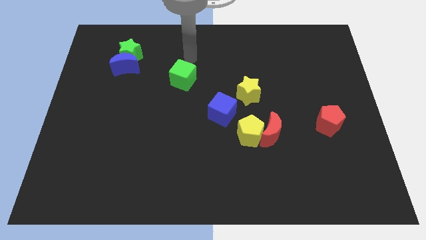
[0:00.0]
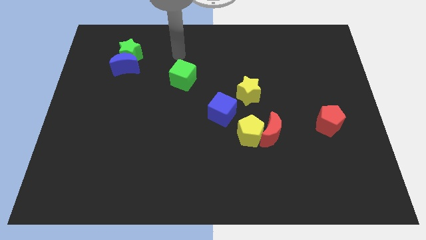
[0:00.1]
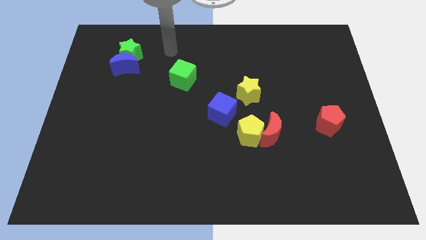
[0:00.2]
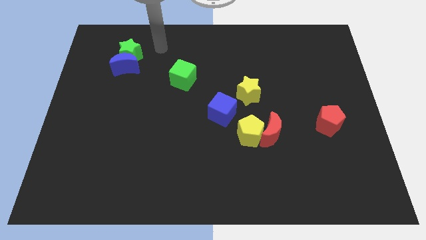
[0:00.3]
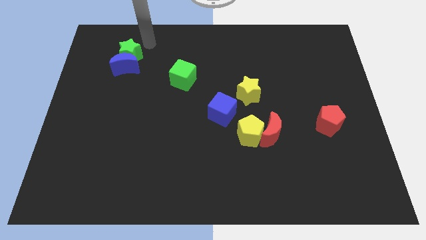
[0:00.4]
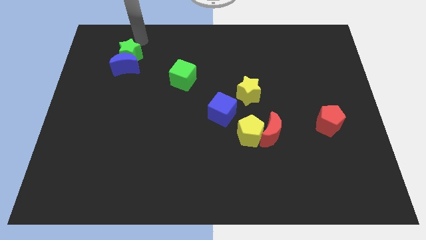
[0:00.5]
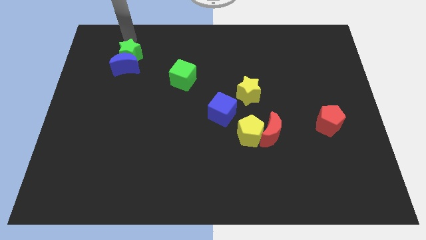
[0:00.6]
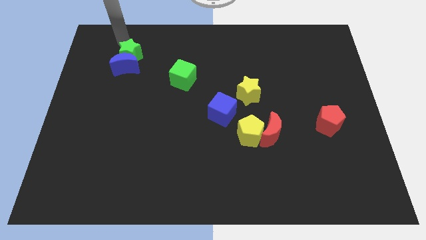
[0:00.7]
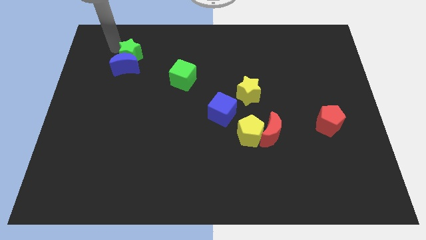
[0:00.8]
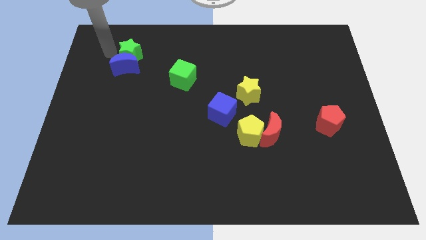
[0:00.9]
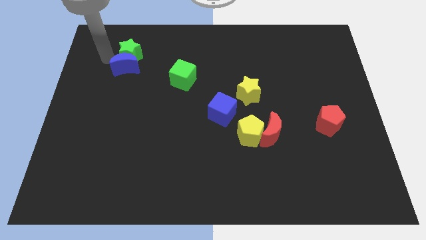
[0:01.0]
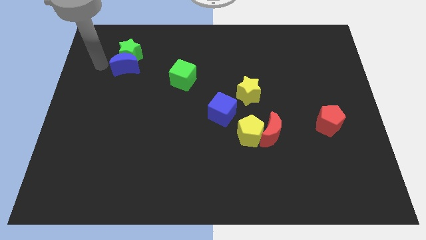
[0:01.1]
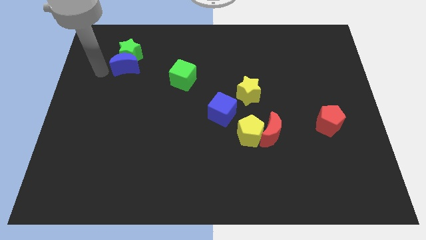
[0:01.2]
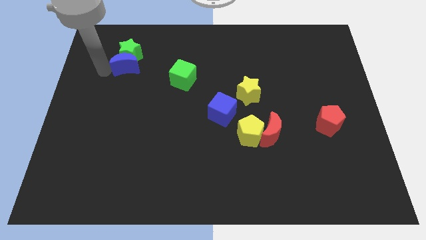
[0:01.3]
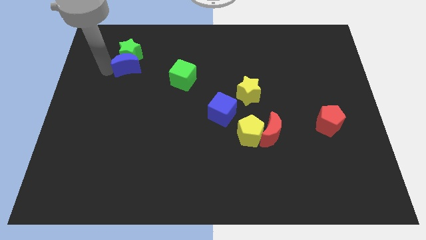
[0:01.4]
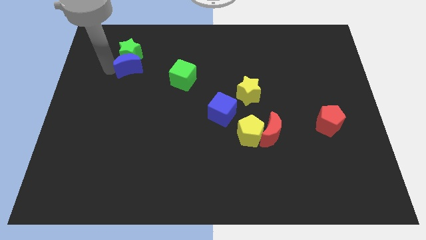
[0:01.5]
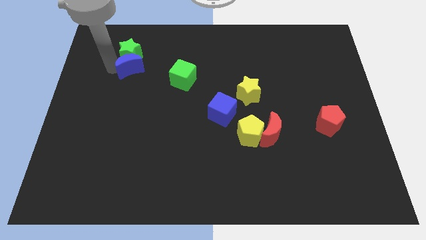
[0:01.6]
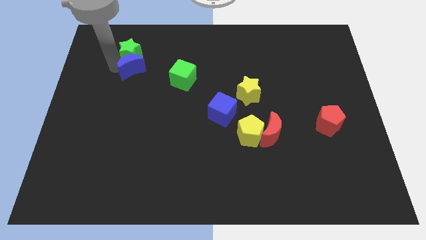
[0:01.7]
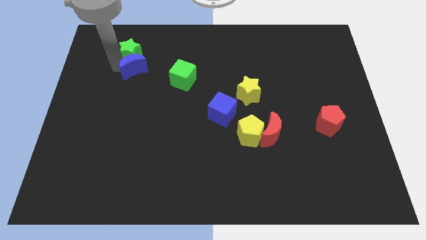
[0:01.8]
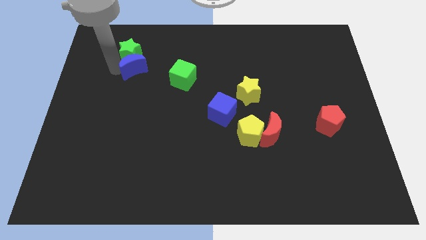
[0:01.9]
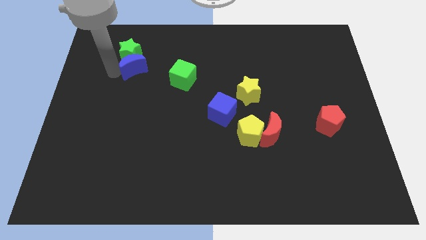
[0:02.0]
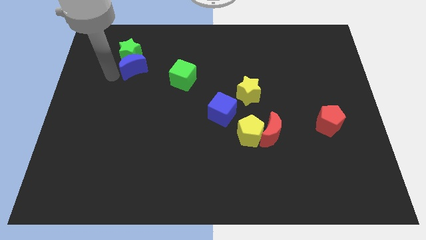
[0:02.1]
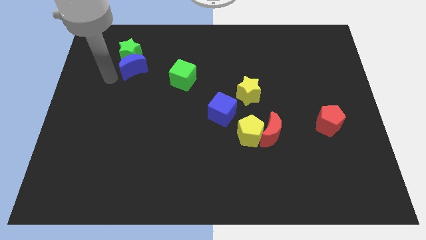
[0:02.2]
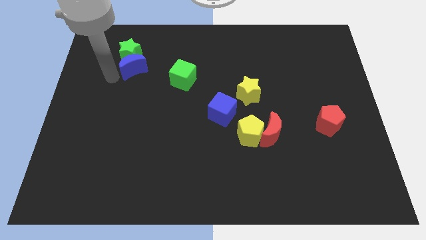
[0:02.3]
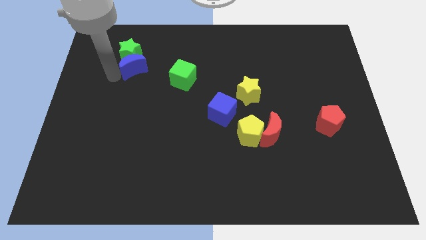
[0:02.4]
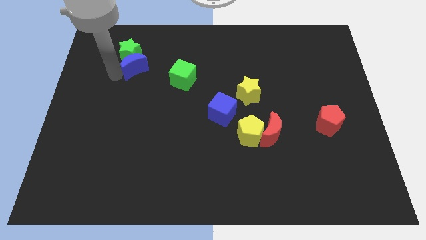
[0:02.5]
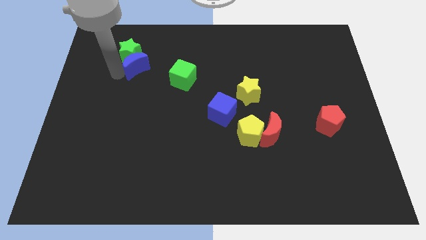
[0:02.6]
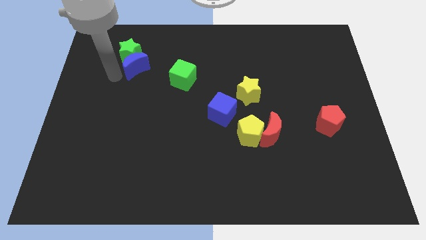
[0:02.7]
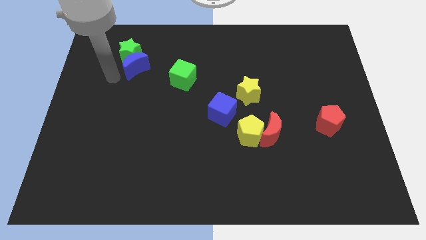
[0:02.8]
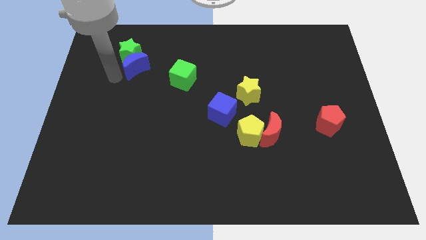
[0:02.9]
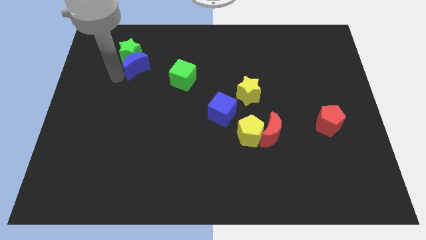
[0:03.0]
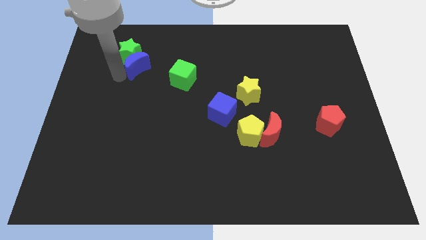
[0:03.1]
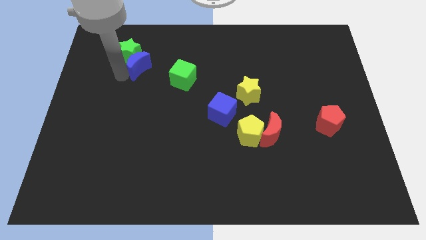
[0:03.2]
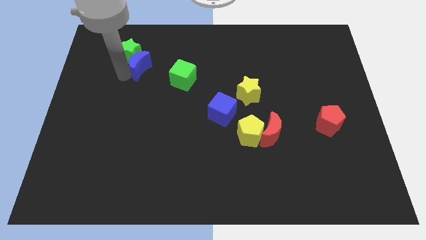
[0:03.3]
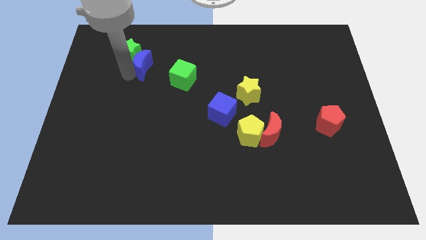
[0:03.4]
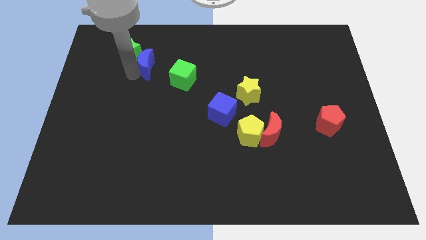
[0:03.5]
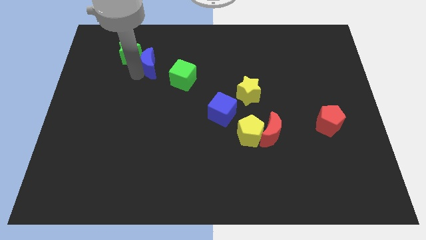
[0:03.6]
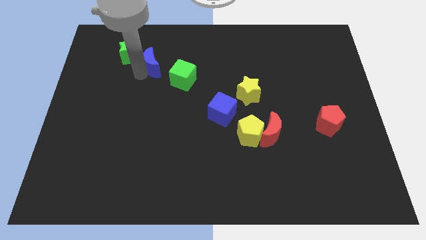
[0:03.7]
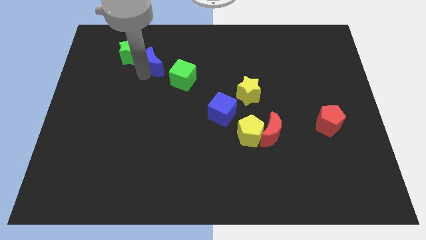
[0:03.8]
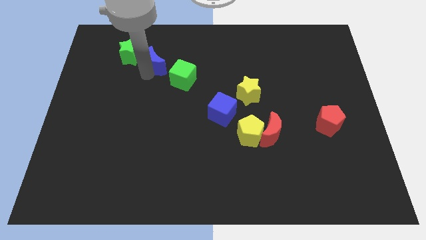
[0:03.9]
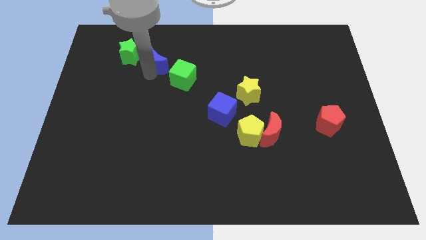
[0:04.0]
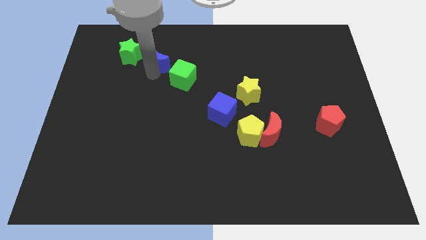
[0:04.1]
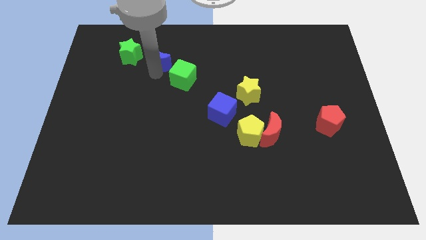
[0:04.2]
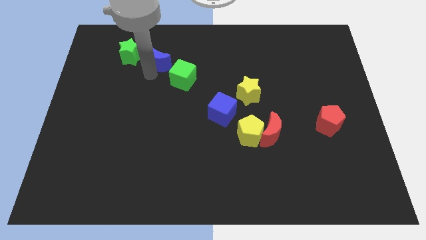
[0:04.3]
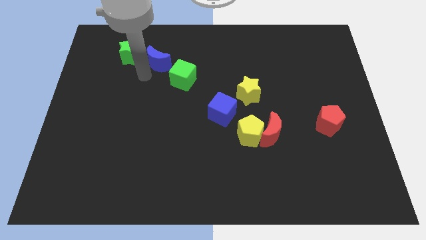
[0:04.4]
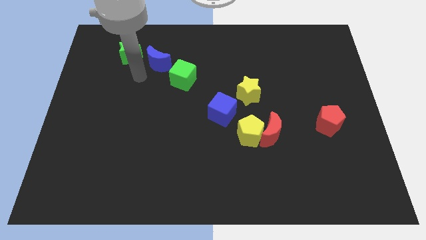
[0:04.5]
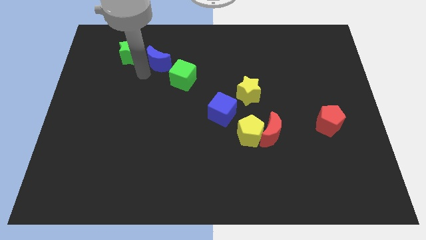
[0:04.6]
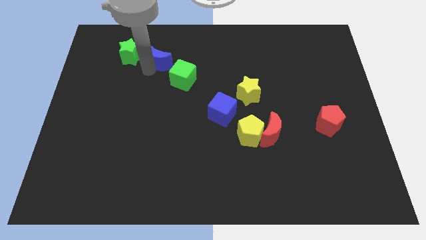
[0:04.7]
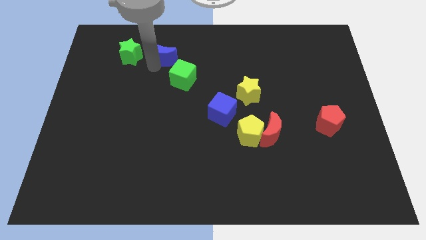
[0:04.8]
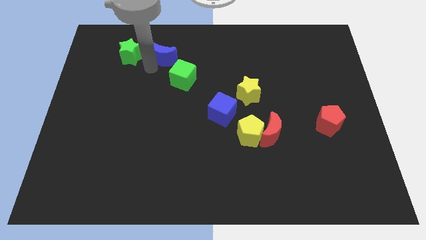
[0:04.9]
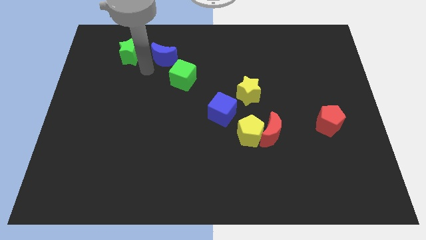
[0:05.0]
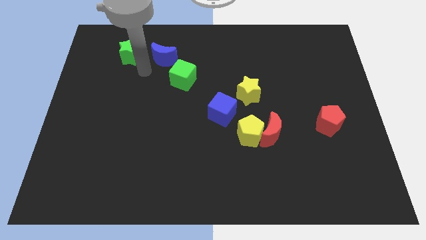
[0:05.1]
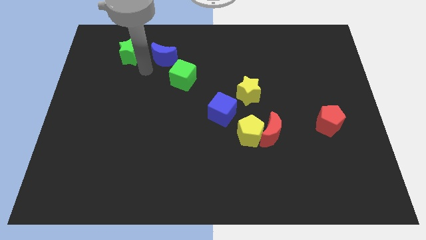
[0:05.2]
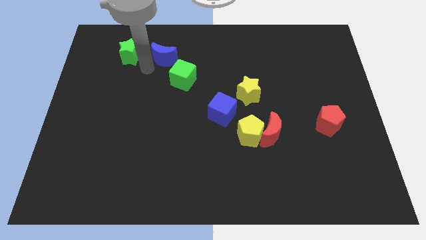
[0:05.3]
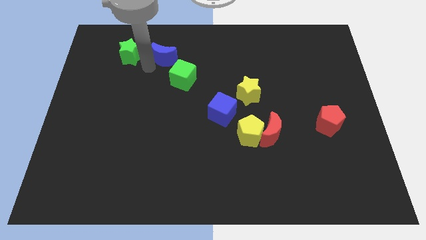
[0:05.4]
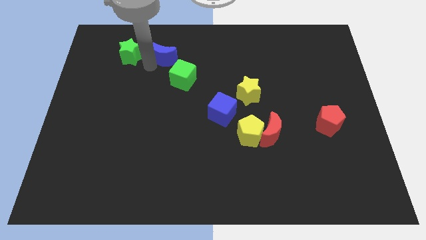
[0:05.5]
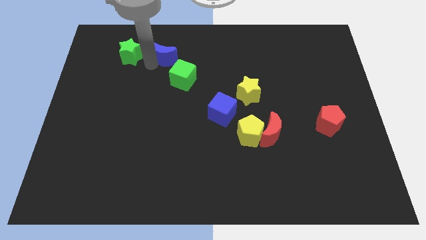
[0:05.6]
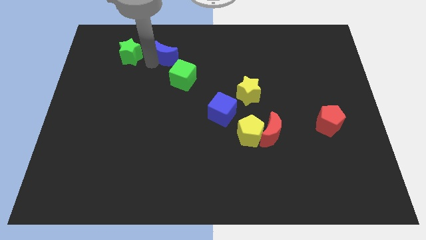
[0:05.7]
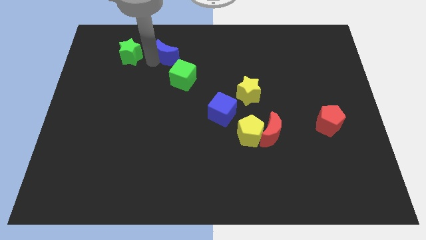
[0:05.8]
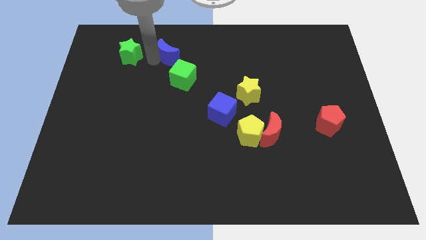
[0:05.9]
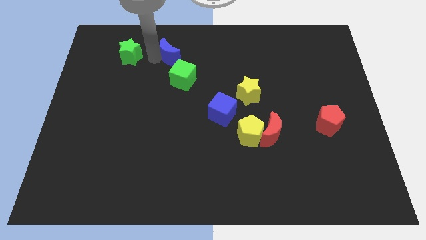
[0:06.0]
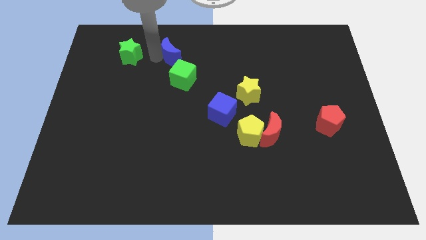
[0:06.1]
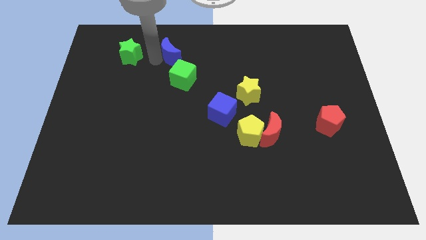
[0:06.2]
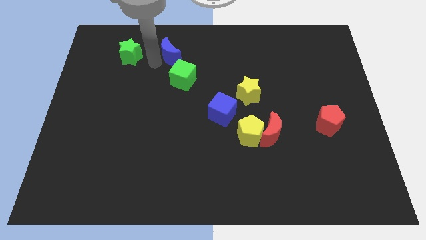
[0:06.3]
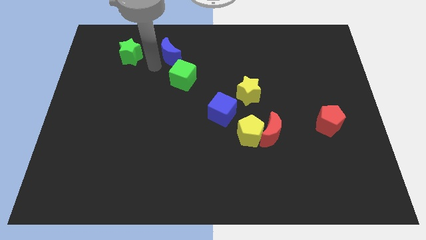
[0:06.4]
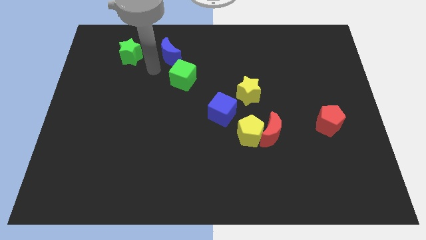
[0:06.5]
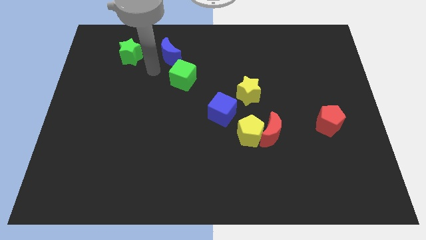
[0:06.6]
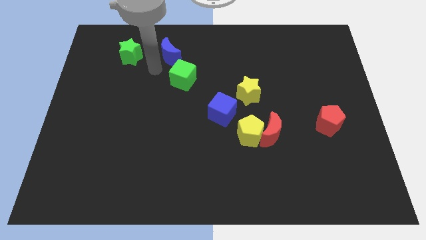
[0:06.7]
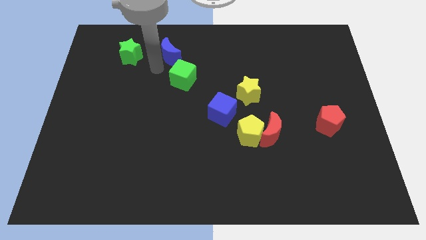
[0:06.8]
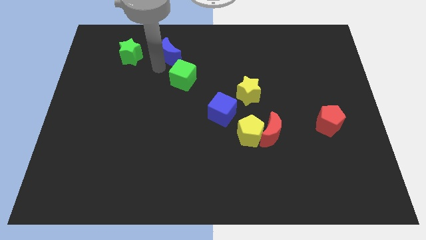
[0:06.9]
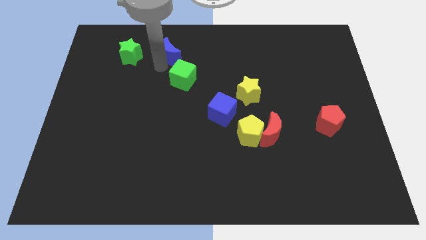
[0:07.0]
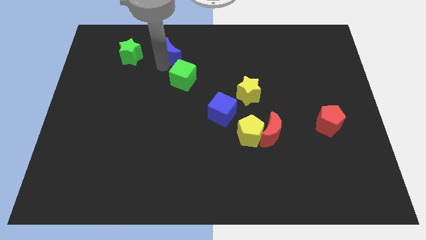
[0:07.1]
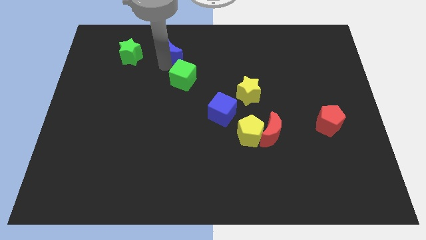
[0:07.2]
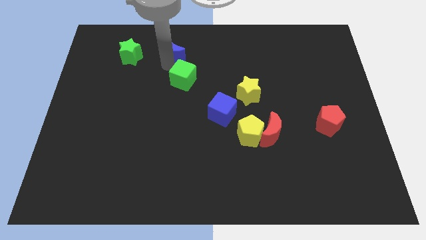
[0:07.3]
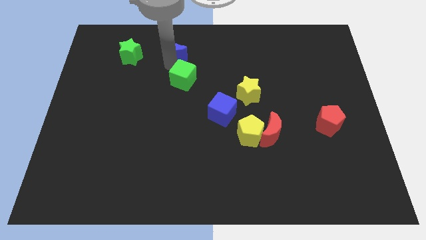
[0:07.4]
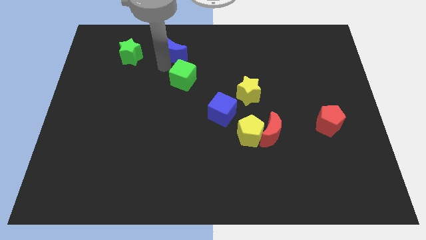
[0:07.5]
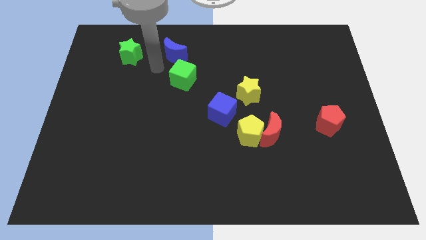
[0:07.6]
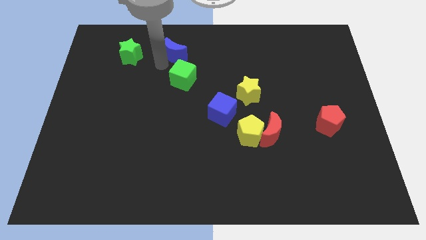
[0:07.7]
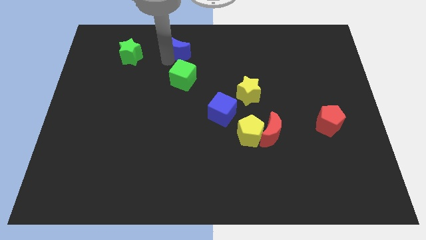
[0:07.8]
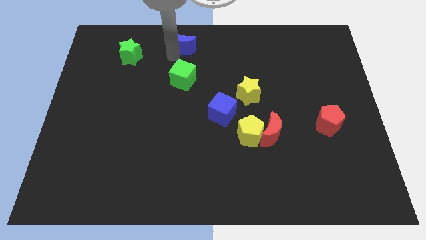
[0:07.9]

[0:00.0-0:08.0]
put the blue moon to the top side
